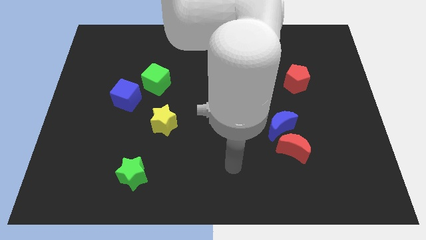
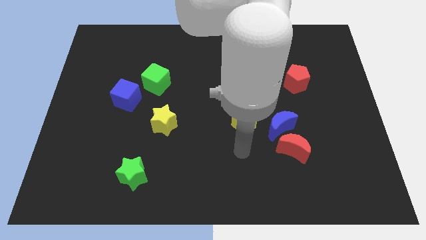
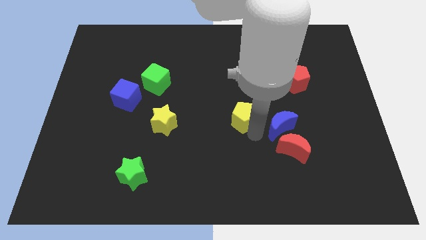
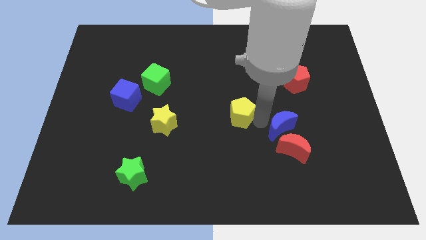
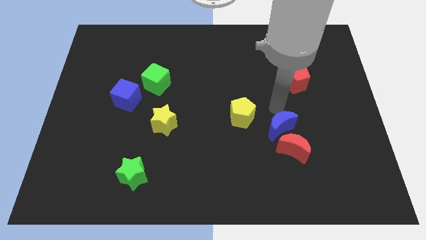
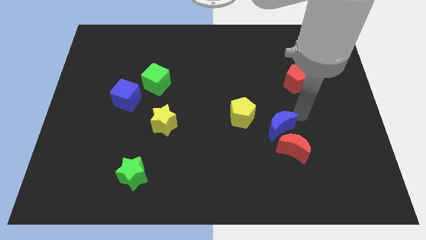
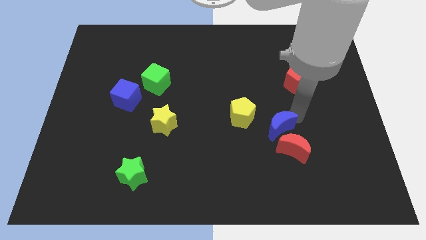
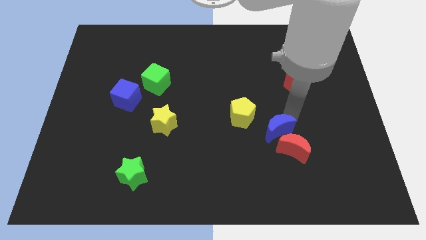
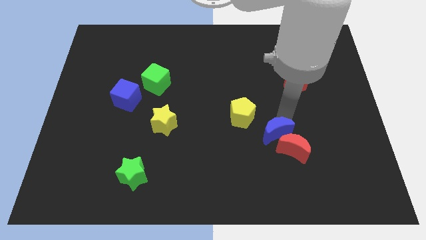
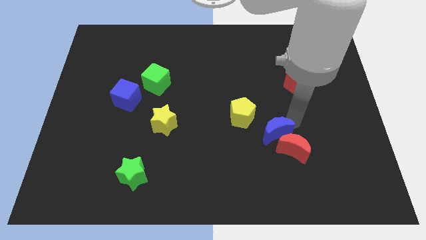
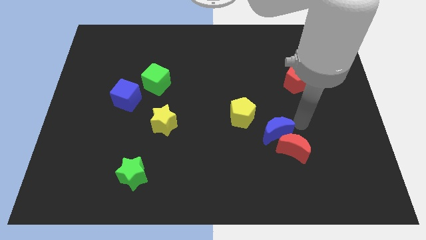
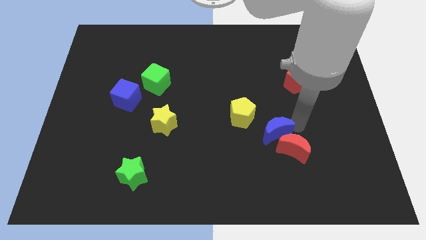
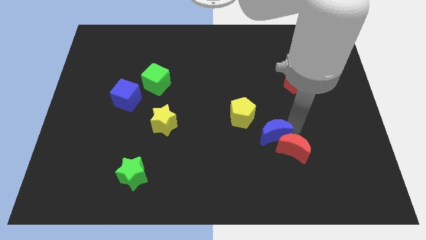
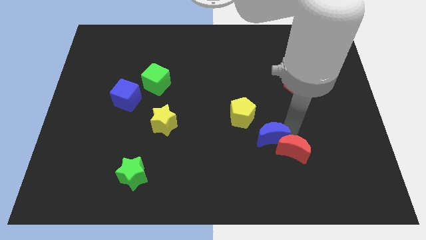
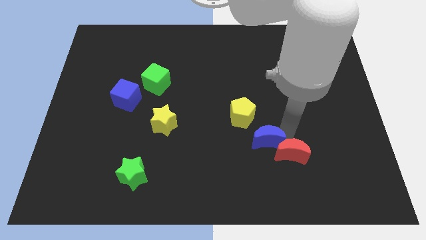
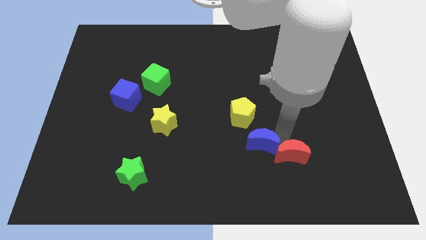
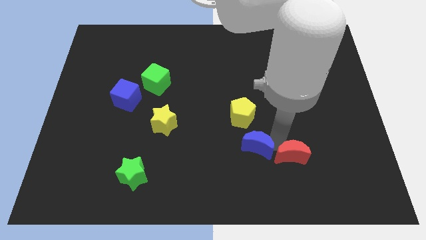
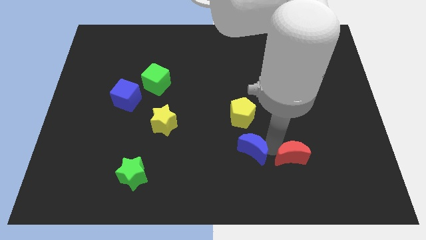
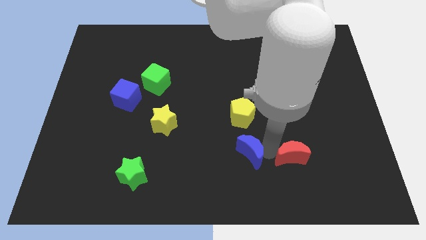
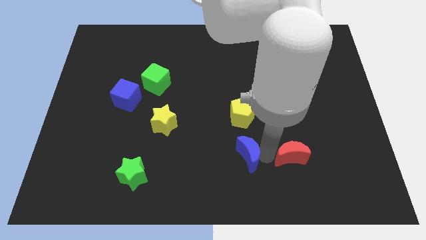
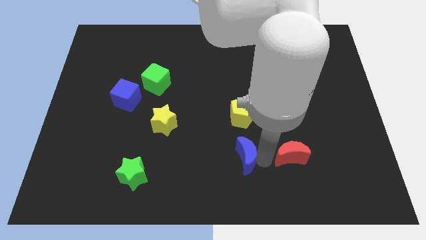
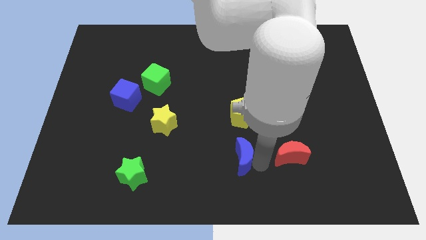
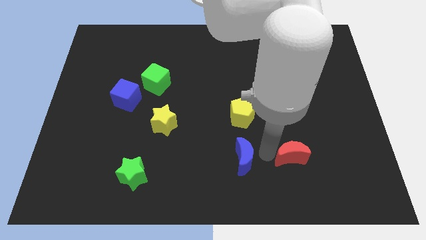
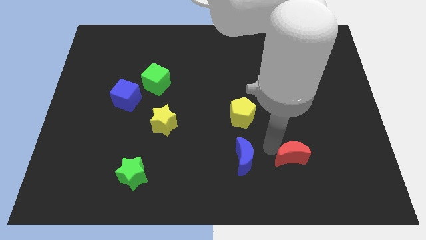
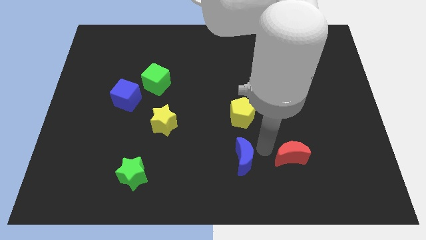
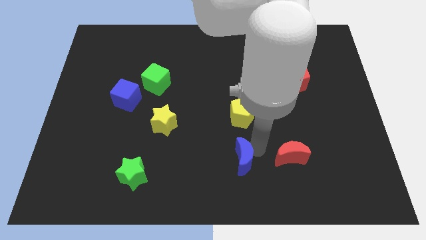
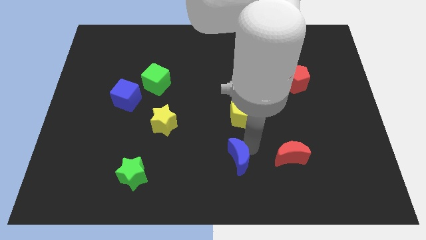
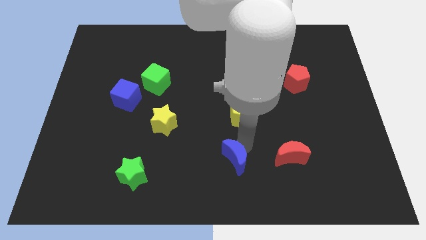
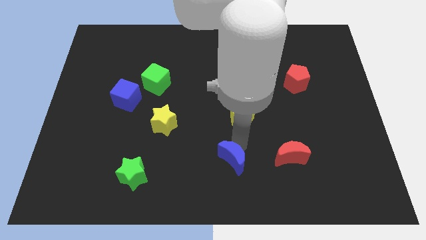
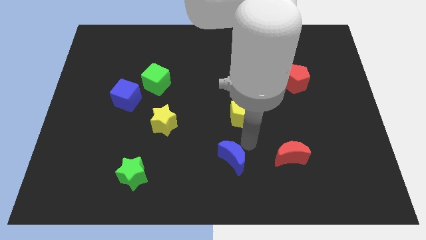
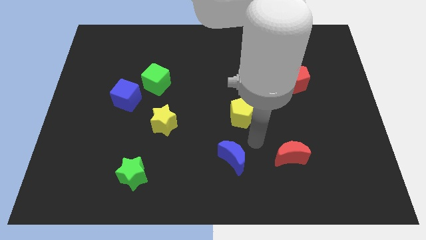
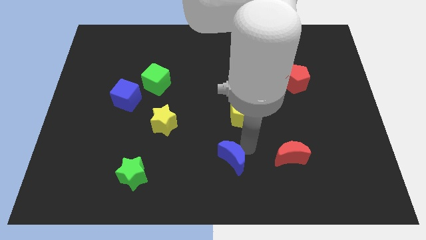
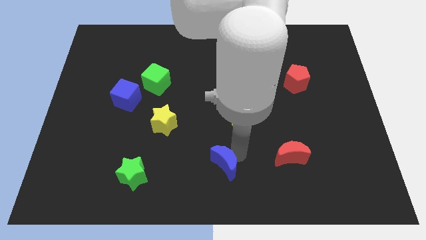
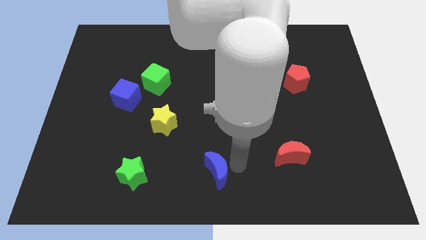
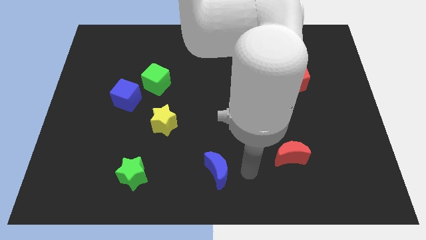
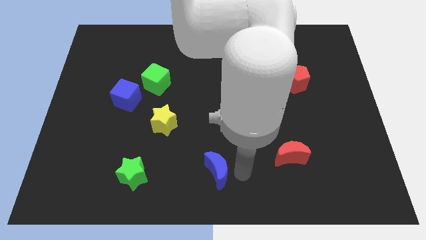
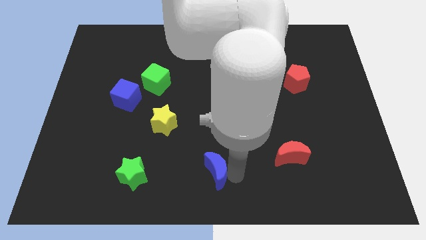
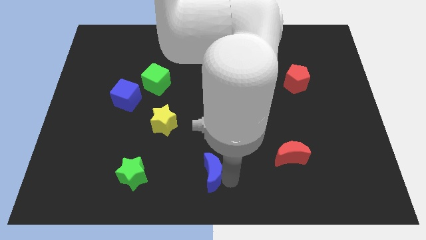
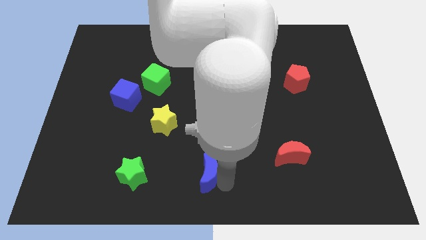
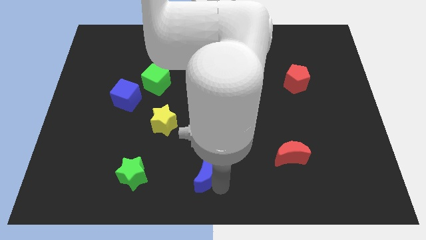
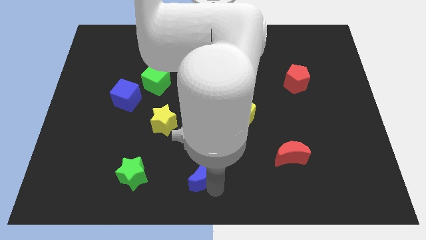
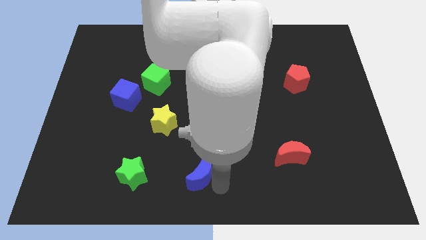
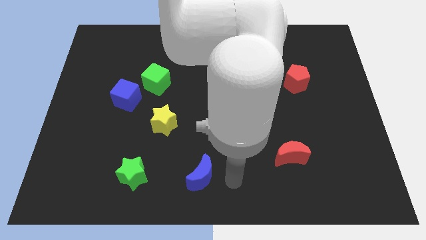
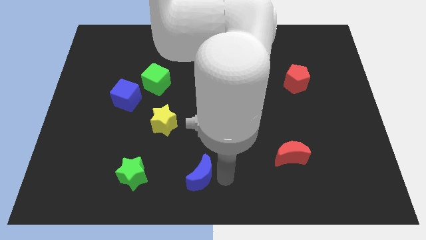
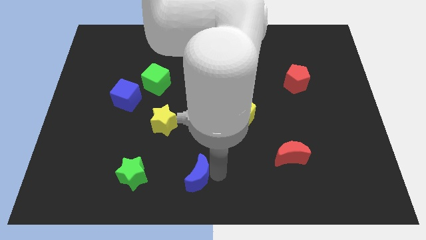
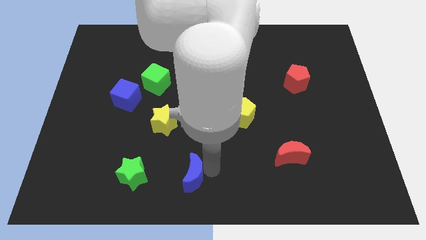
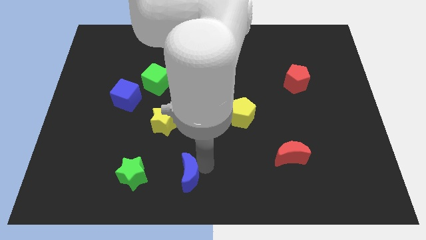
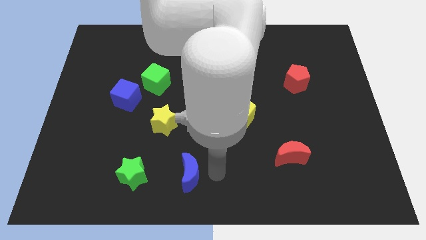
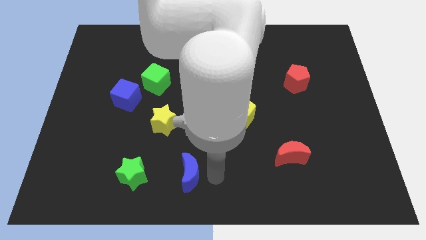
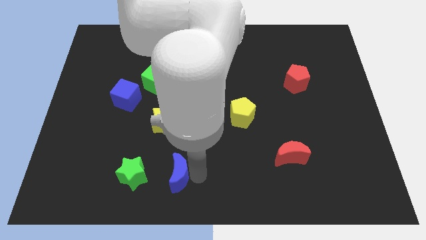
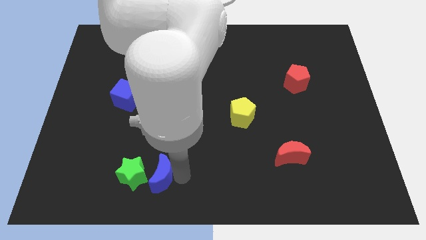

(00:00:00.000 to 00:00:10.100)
slide the blue moon next to the green star

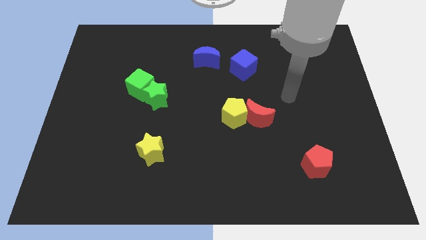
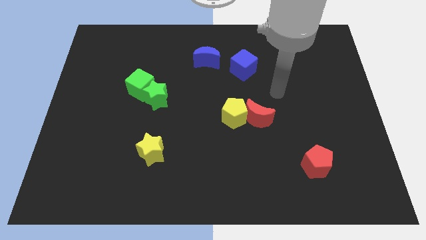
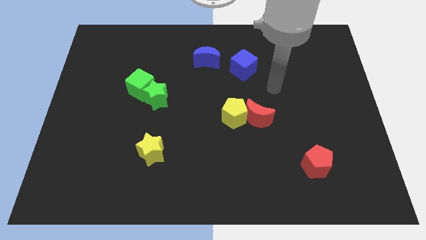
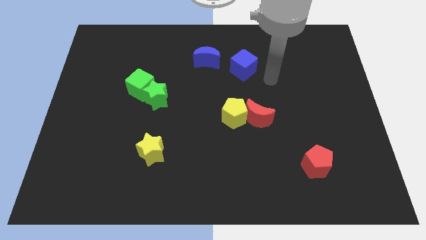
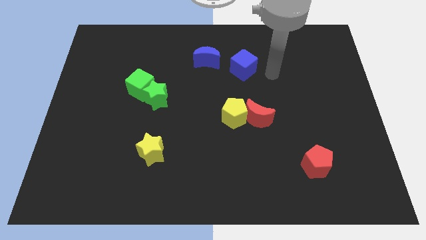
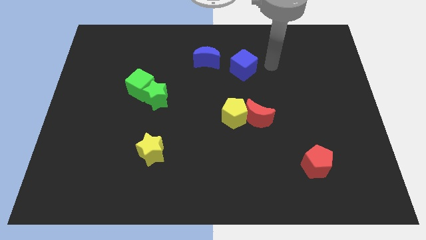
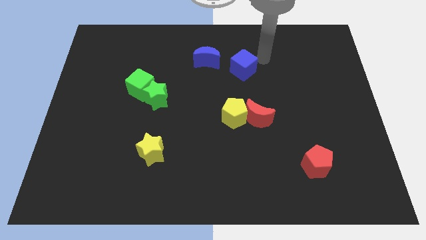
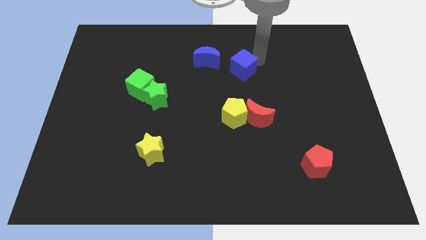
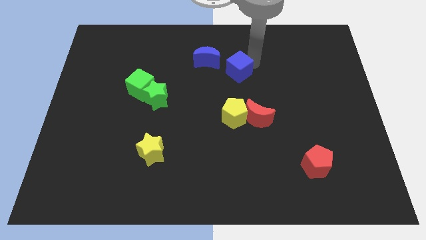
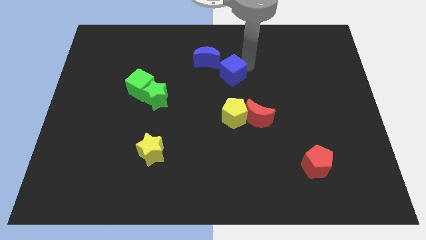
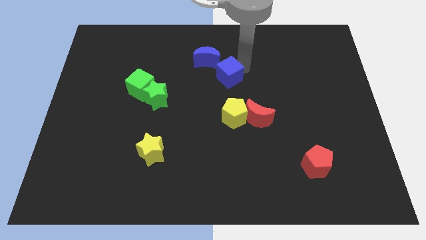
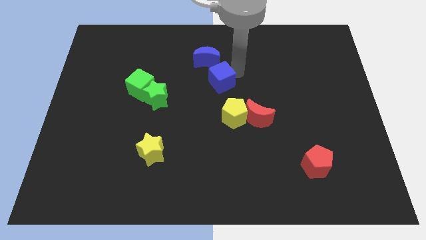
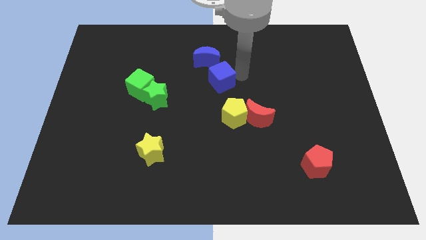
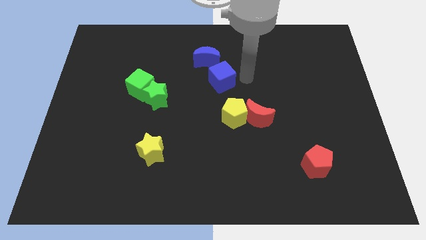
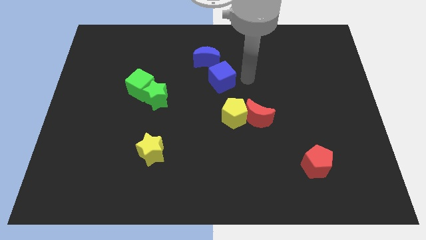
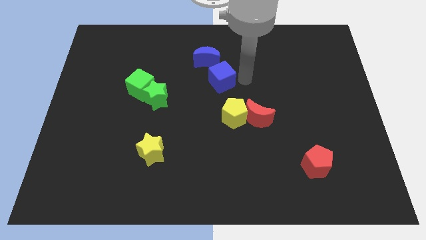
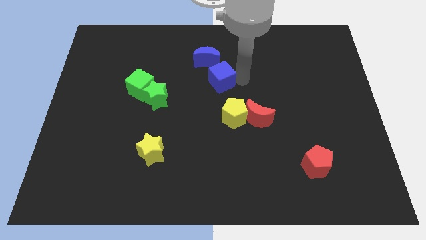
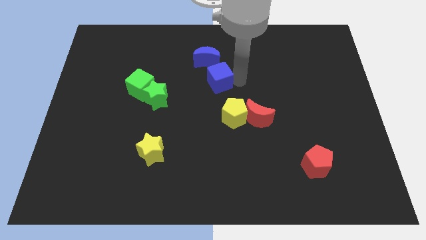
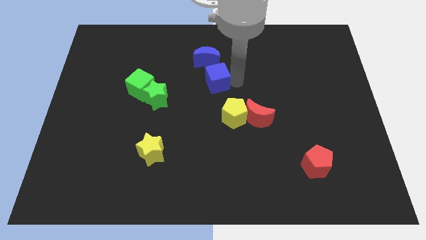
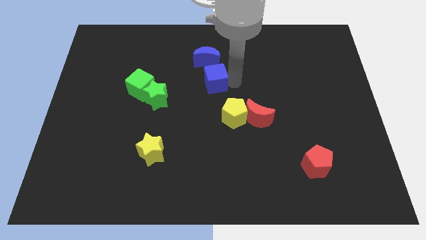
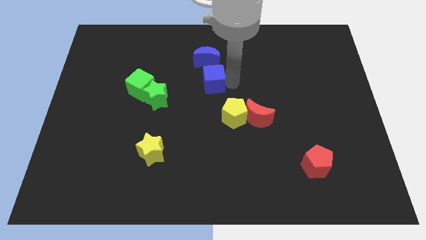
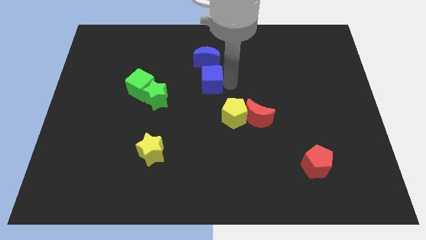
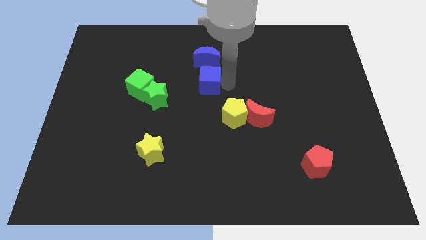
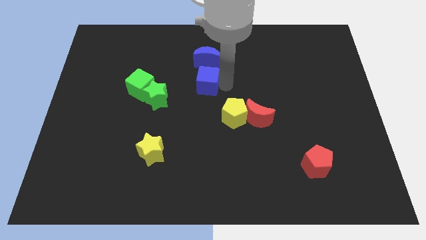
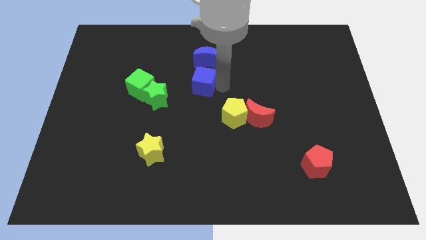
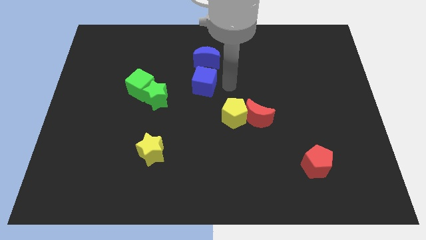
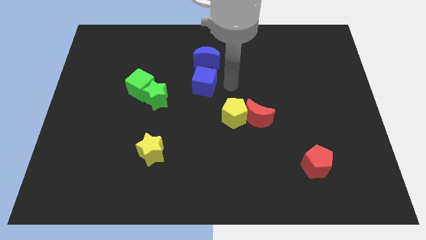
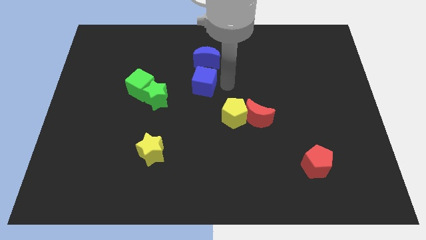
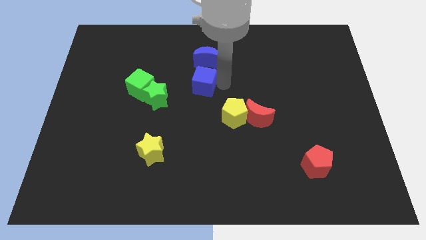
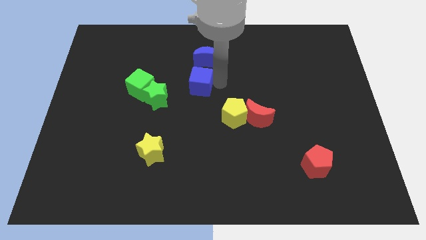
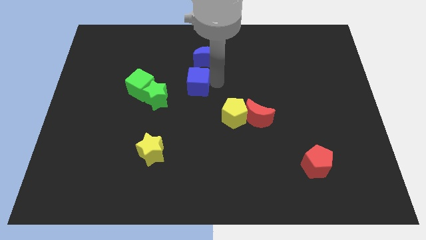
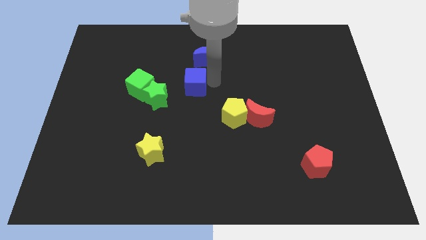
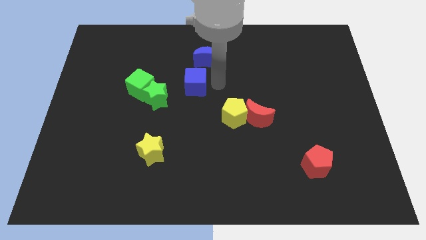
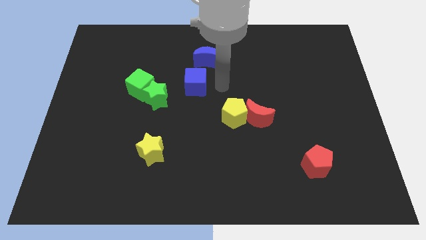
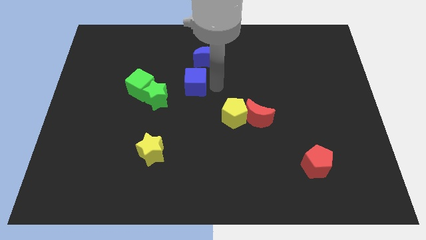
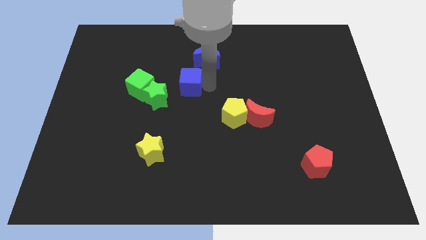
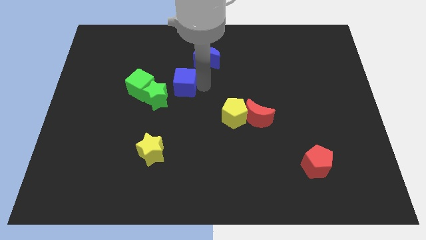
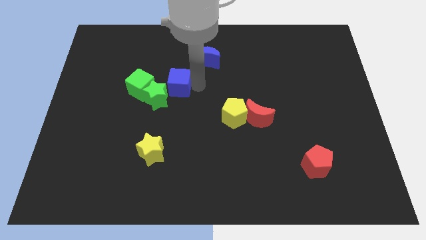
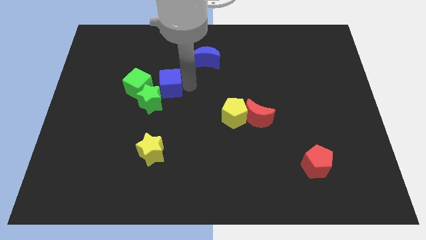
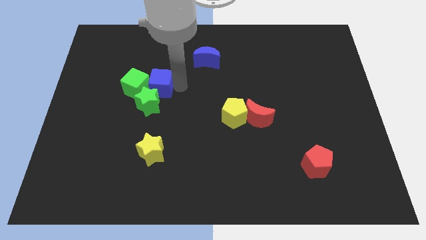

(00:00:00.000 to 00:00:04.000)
push the blue cube close to the green cube
